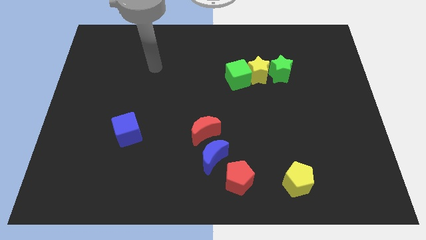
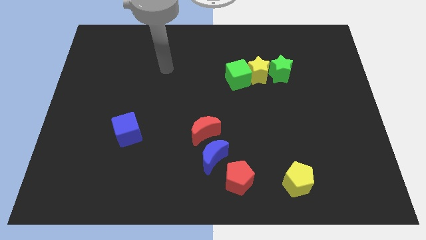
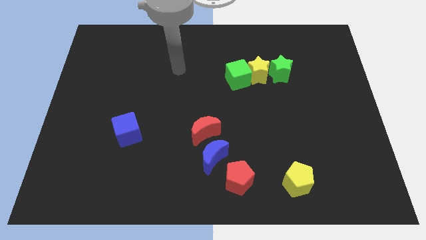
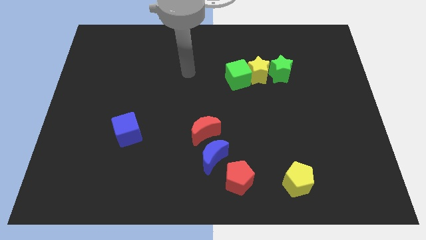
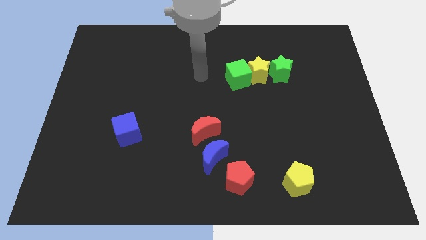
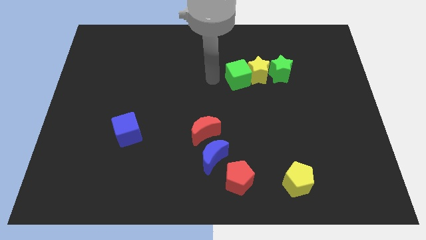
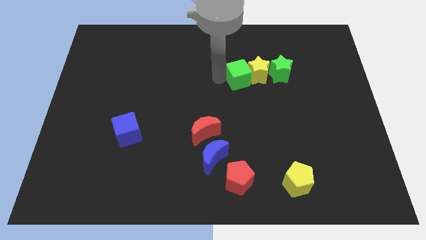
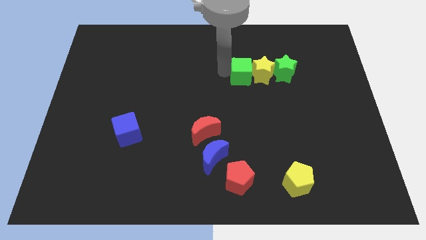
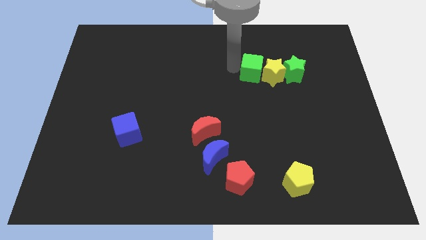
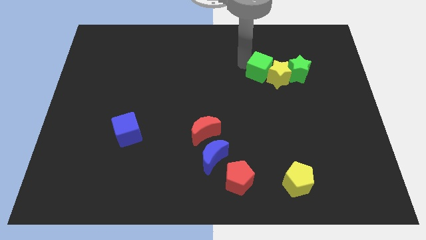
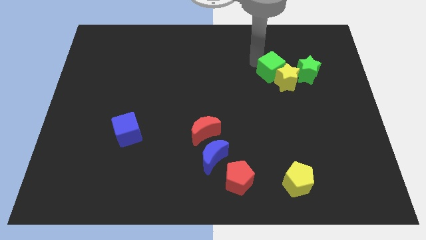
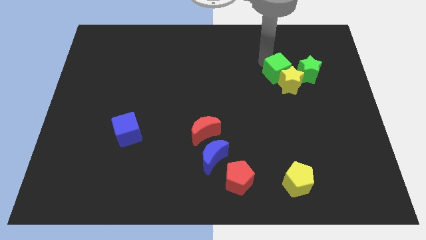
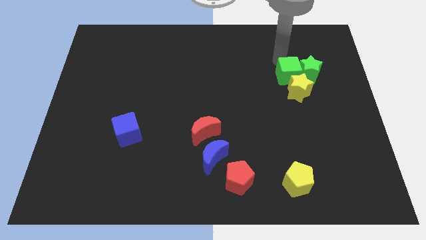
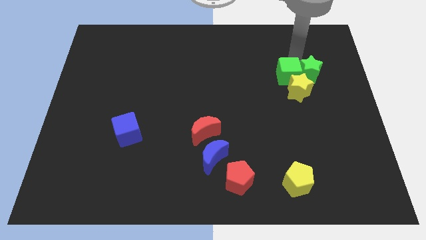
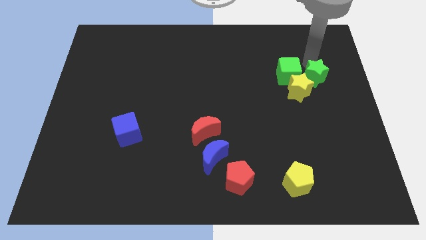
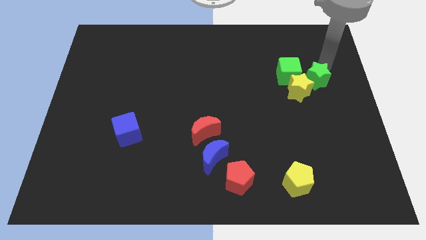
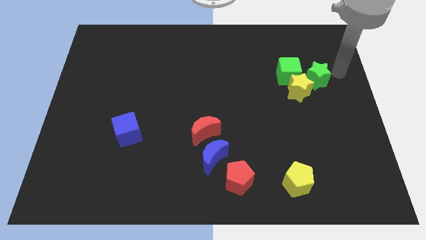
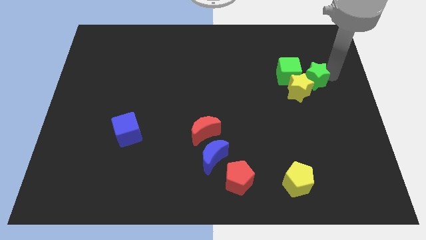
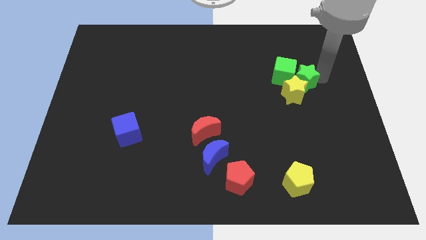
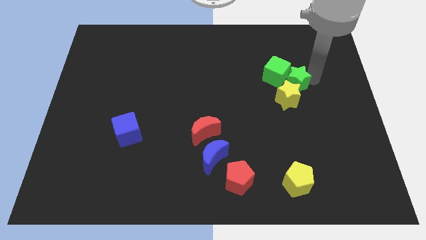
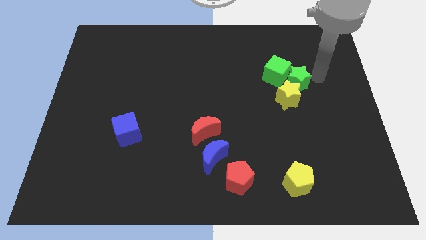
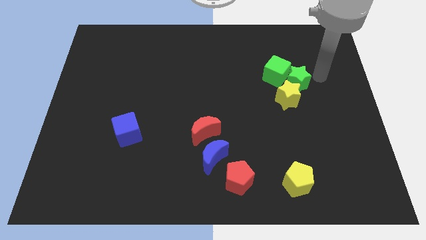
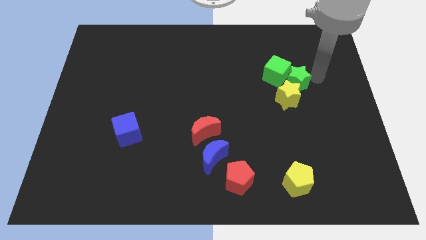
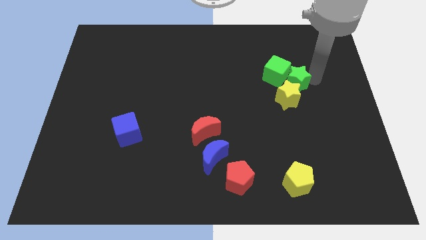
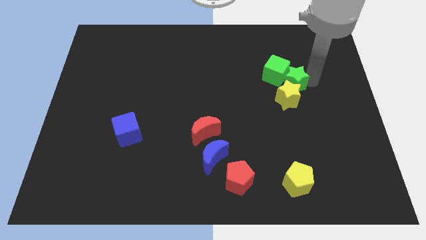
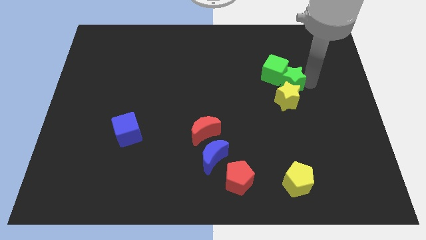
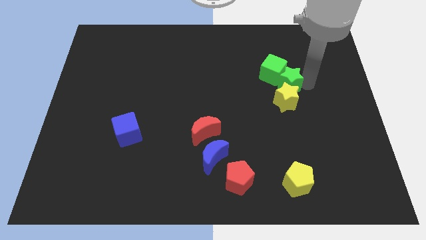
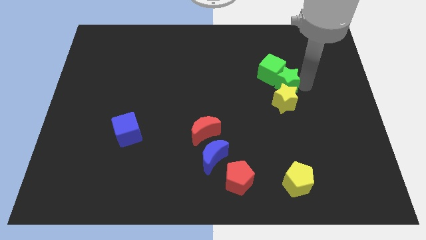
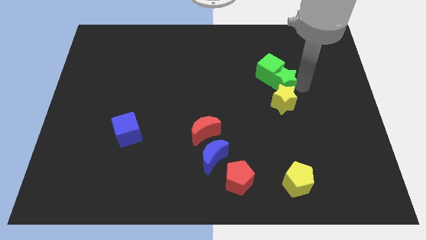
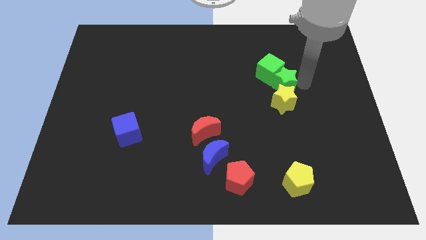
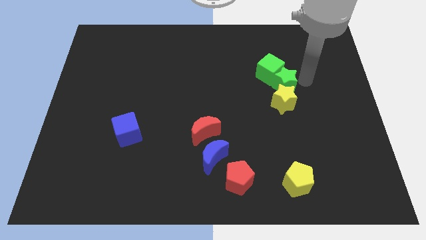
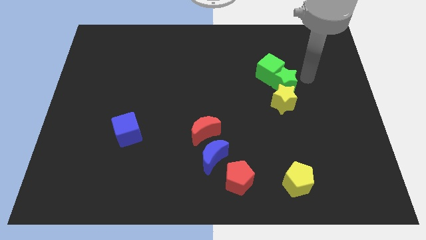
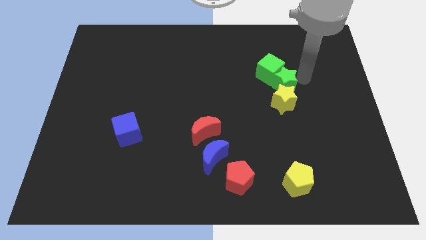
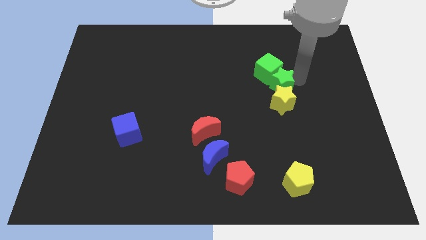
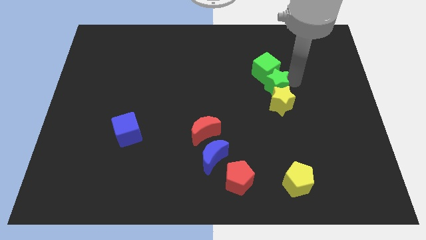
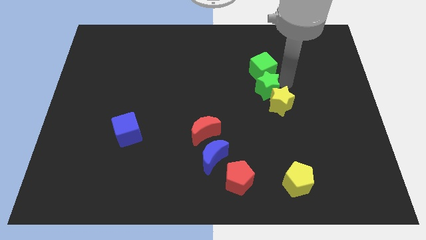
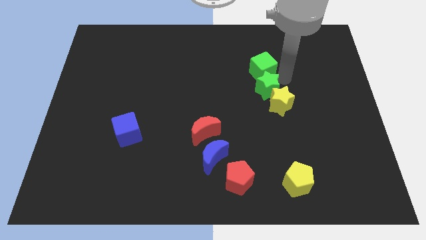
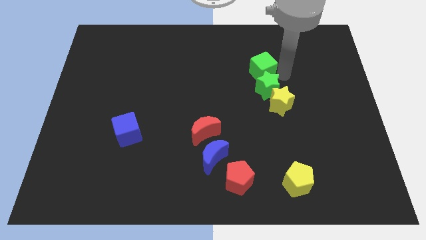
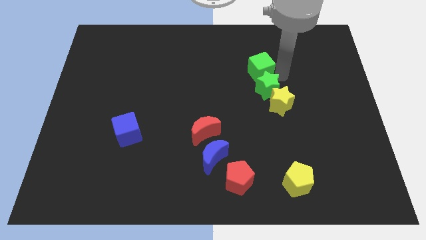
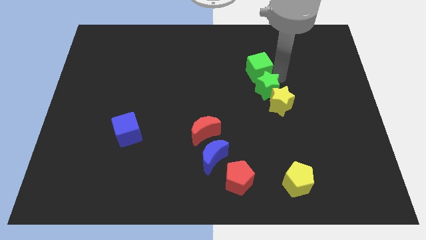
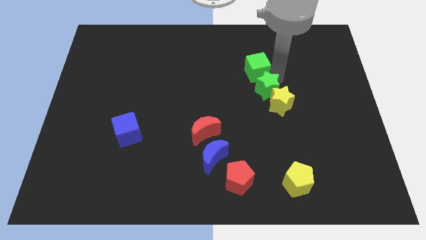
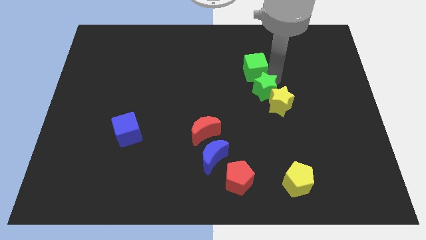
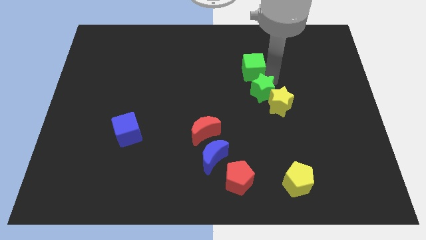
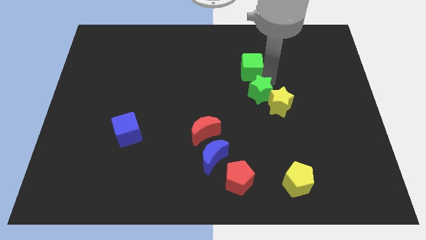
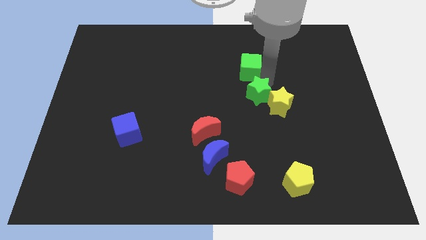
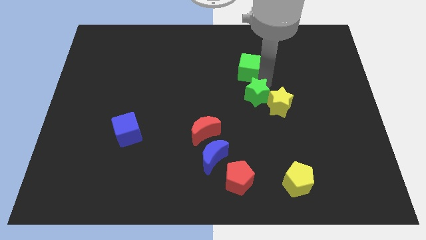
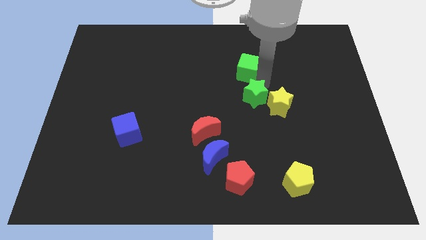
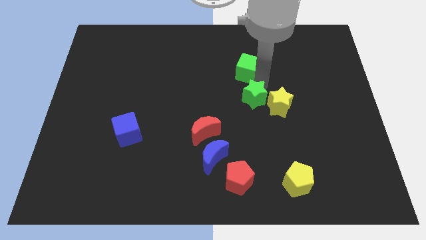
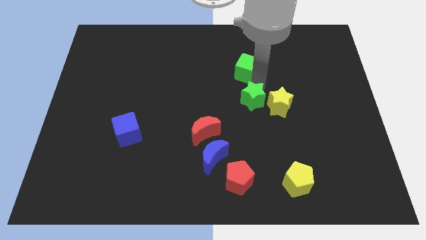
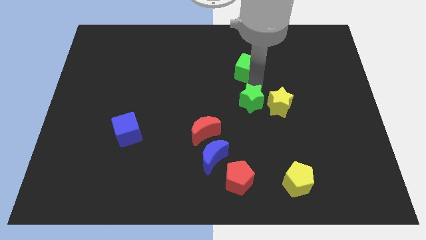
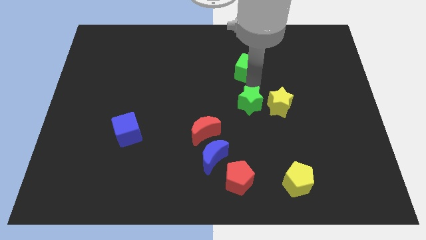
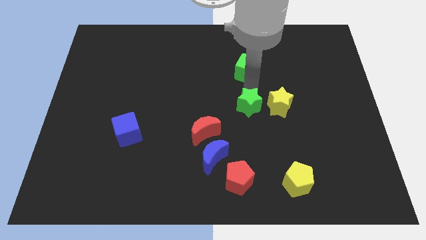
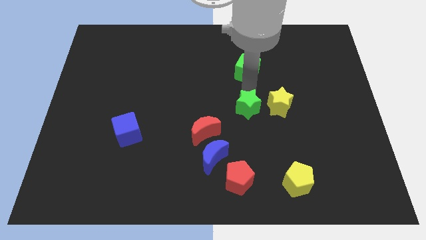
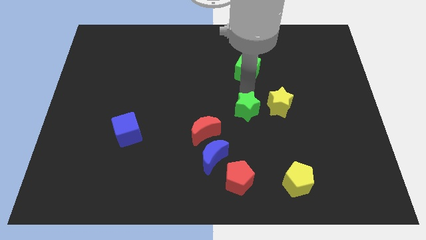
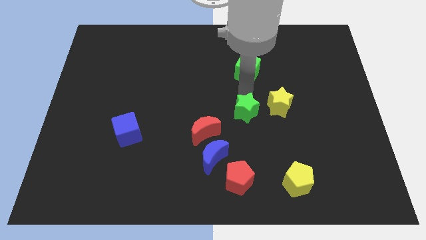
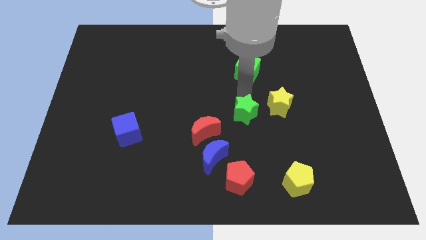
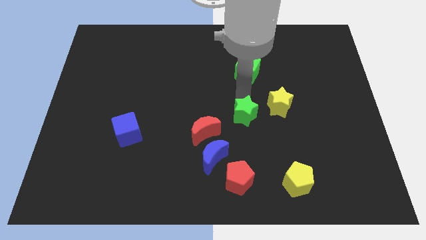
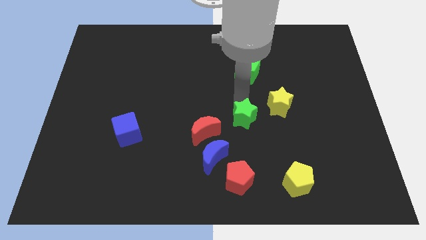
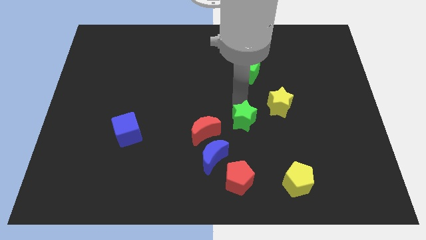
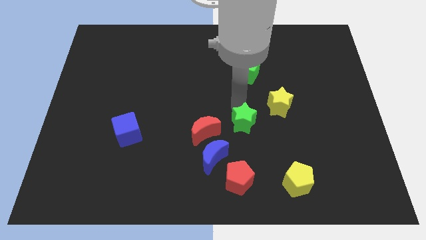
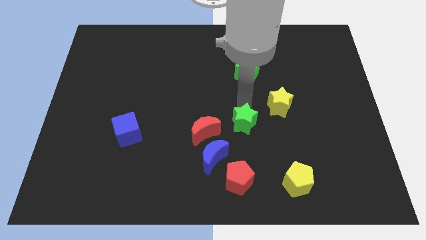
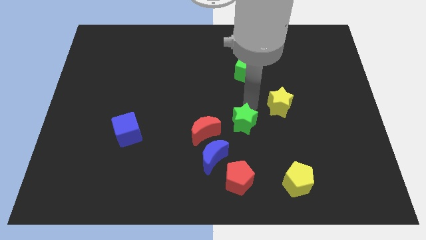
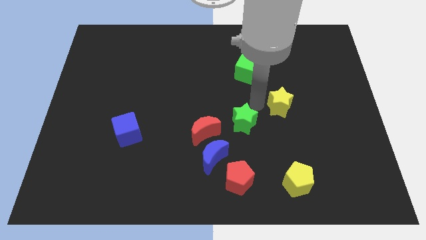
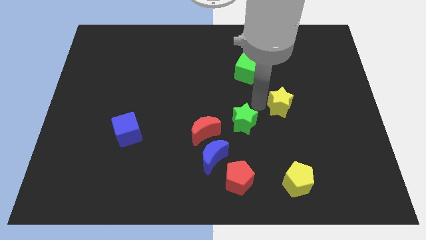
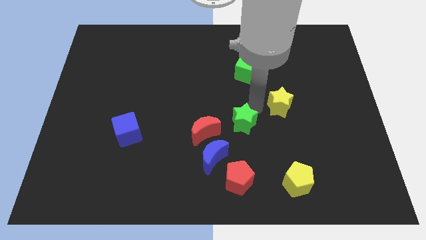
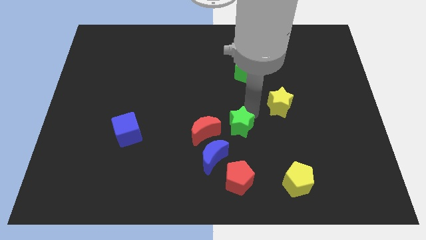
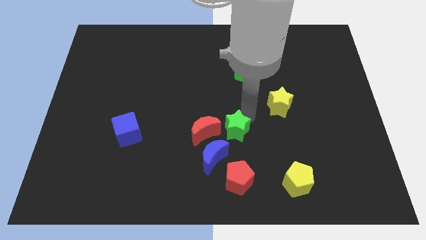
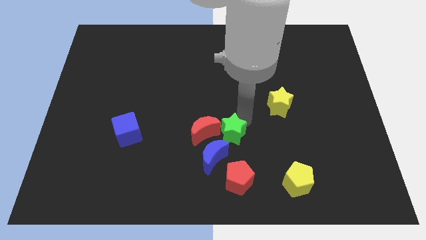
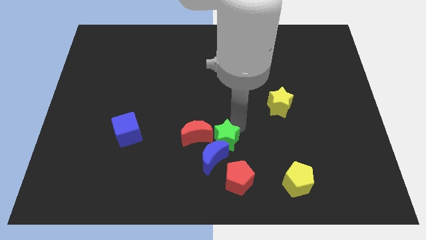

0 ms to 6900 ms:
slide the green star to the blue moon
